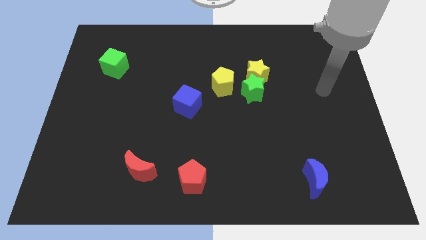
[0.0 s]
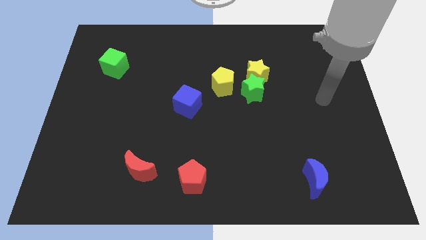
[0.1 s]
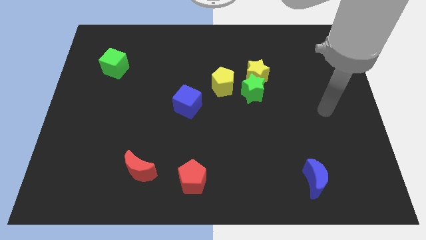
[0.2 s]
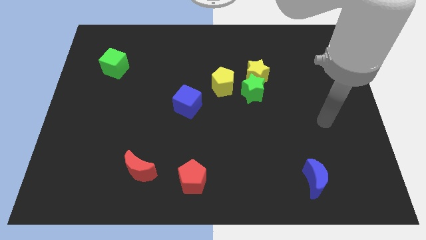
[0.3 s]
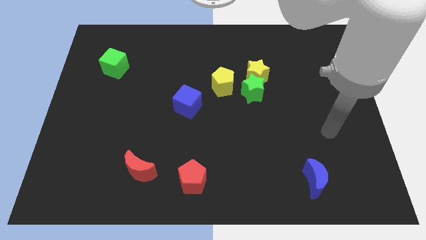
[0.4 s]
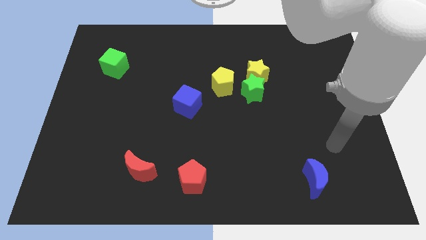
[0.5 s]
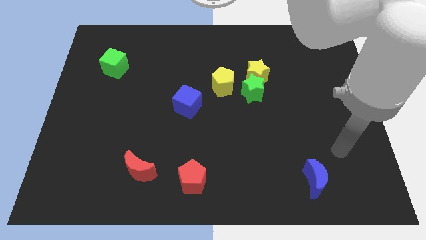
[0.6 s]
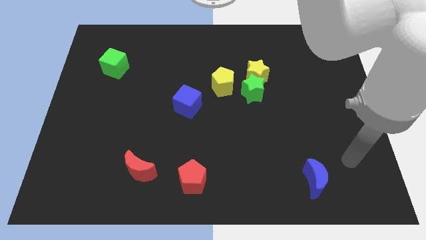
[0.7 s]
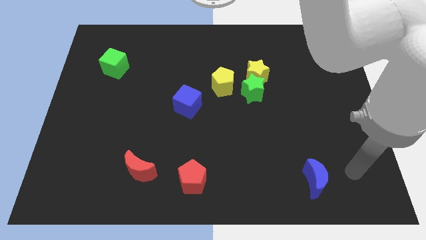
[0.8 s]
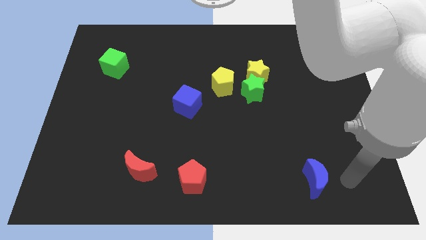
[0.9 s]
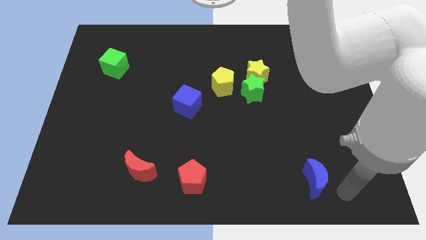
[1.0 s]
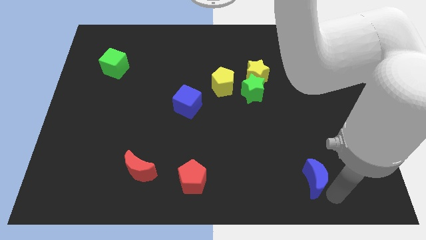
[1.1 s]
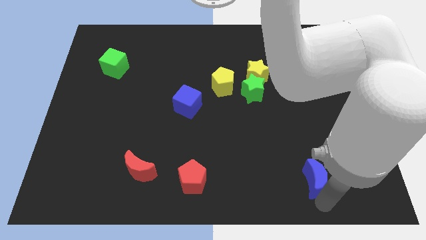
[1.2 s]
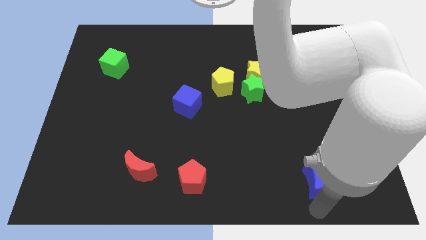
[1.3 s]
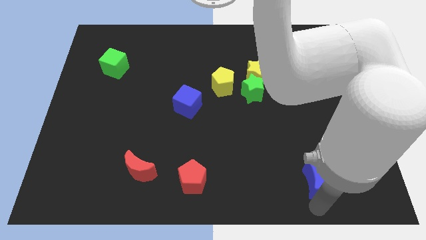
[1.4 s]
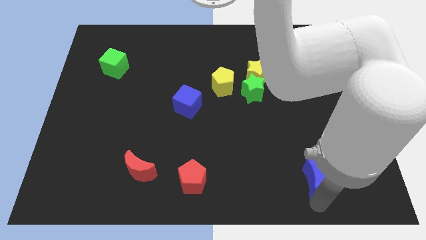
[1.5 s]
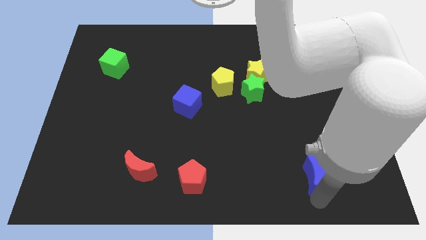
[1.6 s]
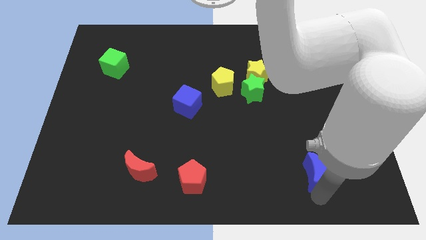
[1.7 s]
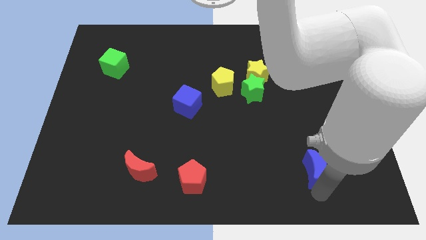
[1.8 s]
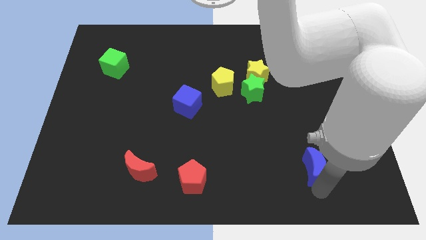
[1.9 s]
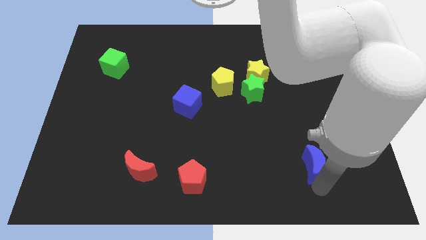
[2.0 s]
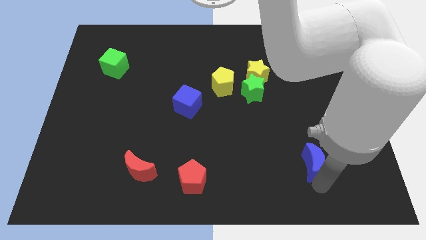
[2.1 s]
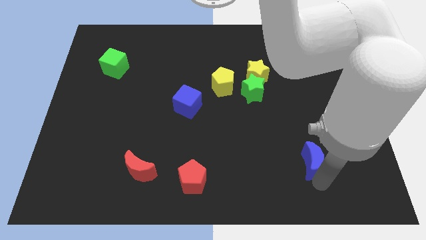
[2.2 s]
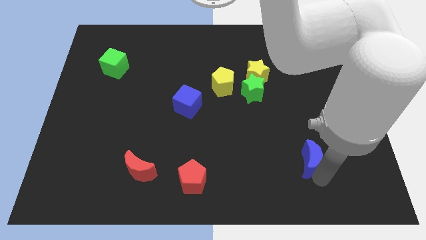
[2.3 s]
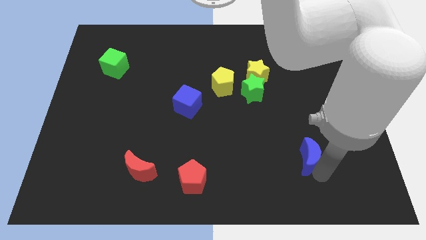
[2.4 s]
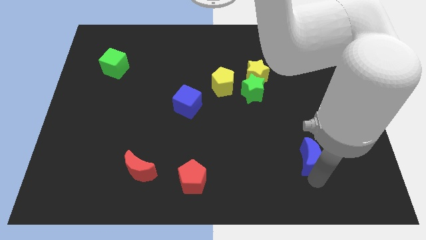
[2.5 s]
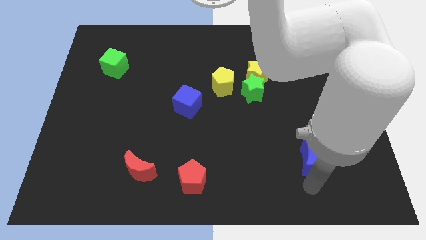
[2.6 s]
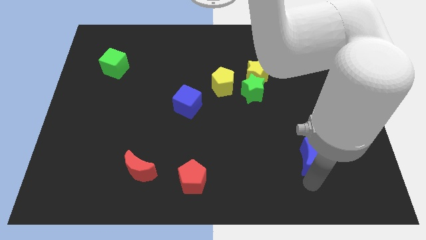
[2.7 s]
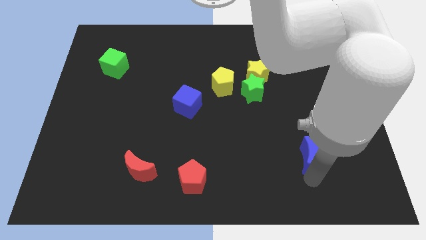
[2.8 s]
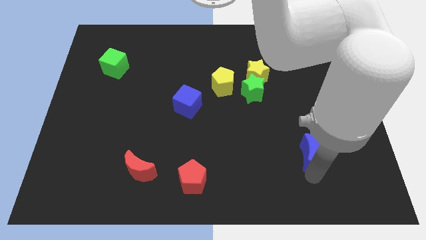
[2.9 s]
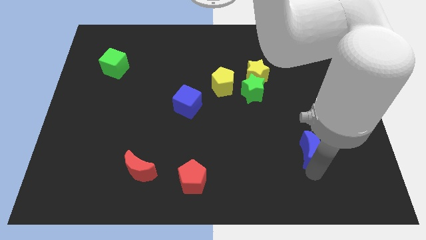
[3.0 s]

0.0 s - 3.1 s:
slightly push the blue moon up

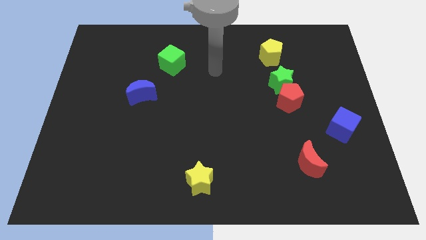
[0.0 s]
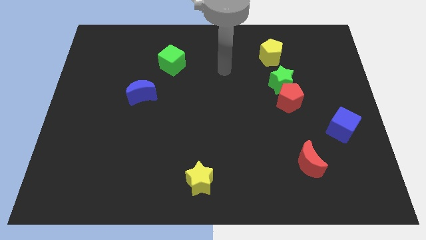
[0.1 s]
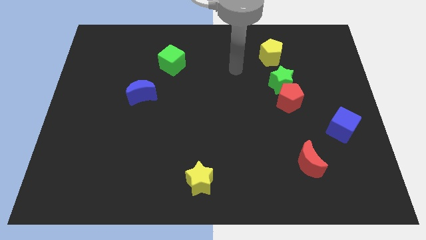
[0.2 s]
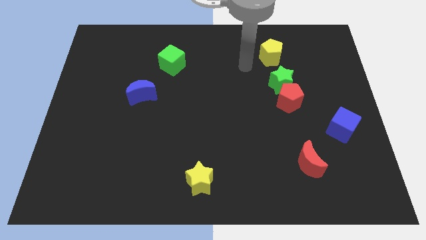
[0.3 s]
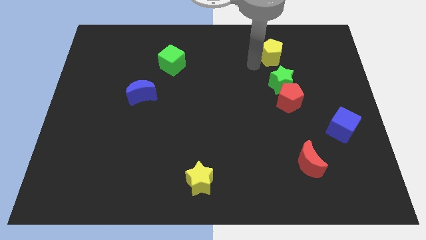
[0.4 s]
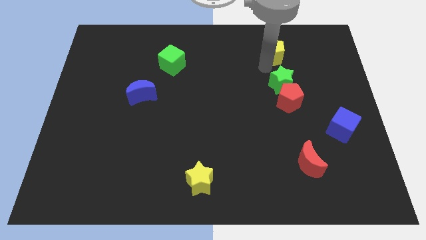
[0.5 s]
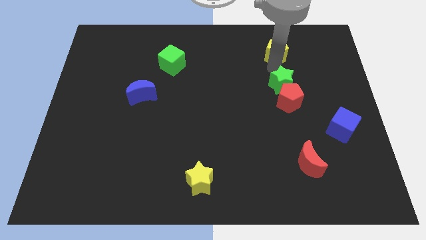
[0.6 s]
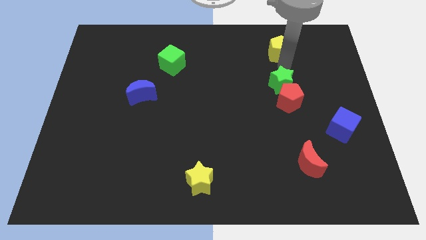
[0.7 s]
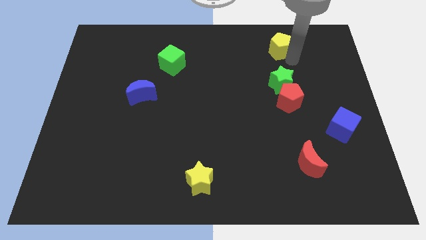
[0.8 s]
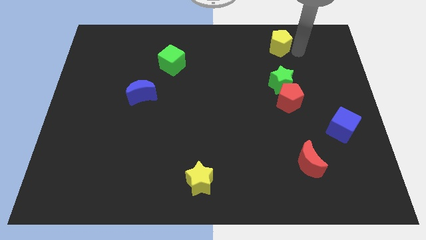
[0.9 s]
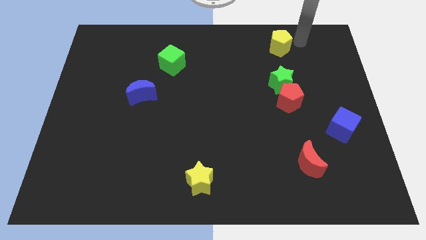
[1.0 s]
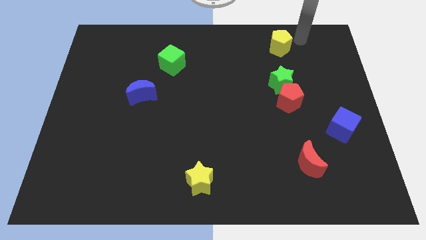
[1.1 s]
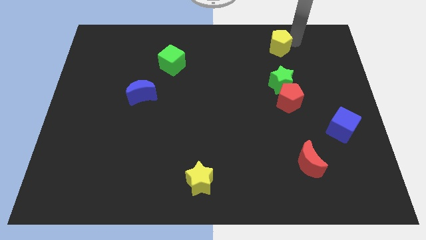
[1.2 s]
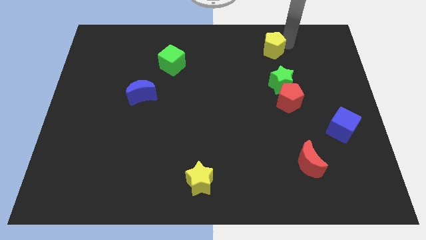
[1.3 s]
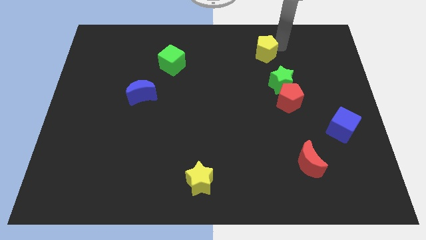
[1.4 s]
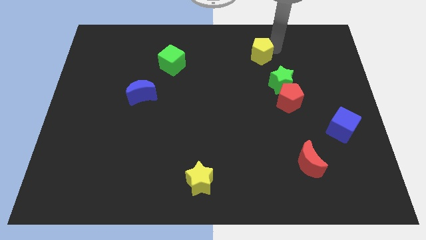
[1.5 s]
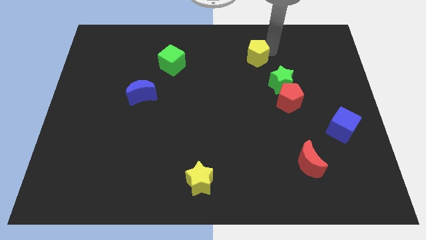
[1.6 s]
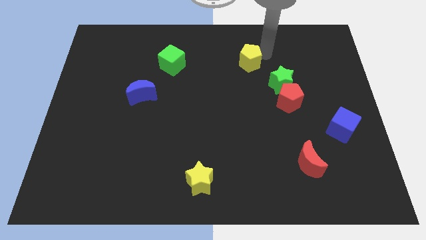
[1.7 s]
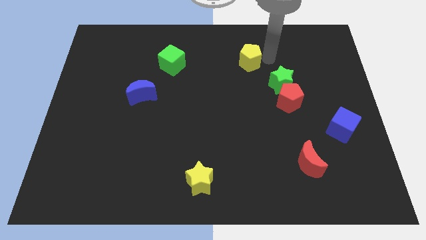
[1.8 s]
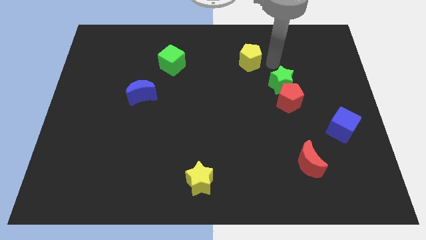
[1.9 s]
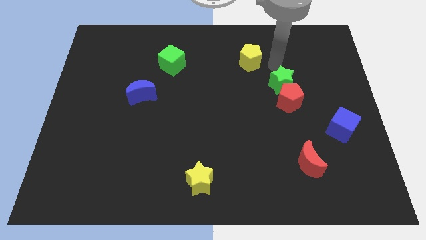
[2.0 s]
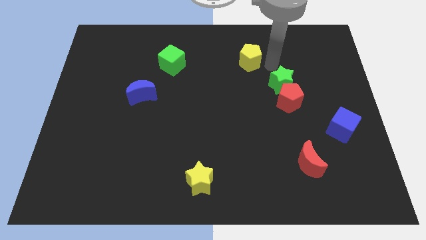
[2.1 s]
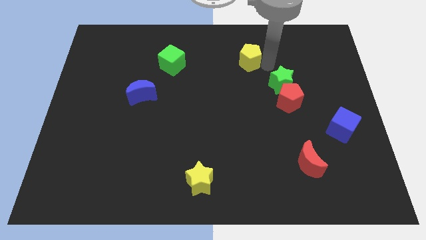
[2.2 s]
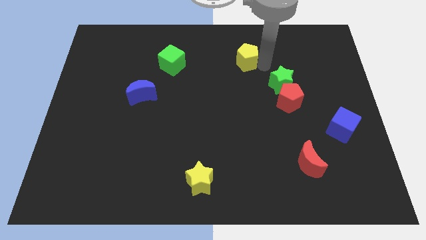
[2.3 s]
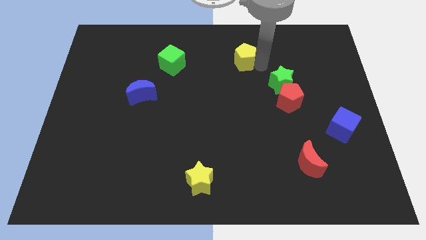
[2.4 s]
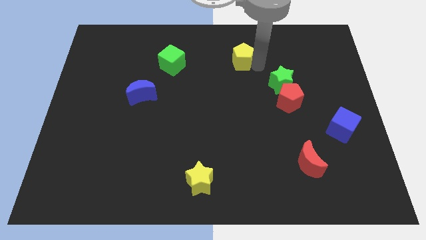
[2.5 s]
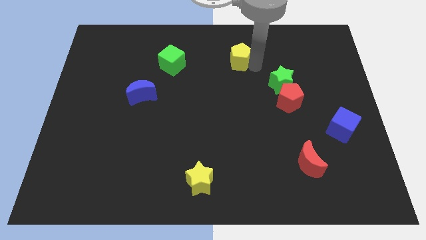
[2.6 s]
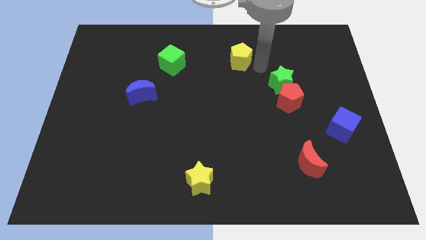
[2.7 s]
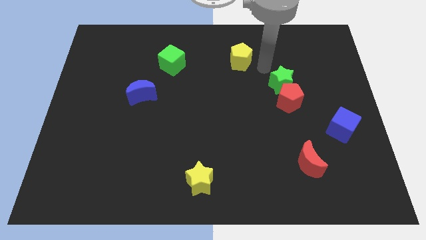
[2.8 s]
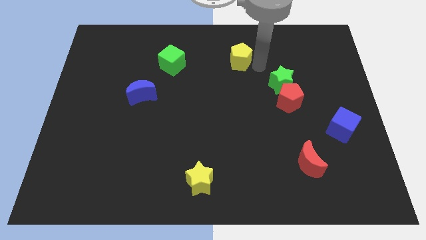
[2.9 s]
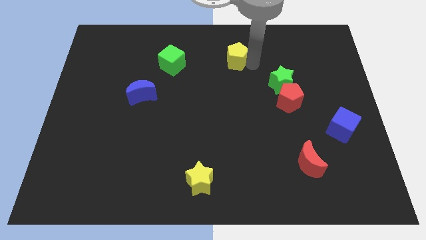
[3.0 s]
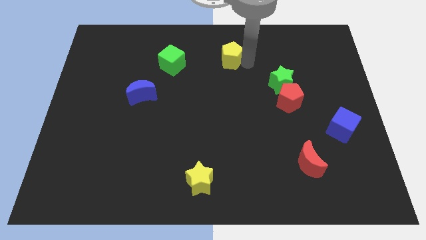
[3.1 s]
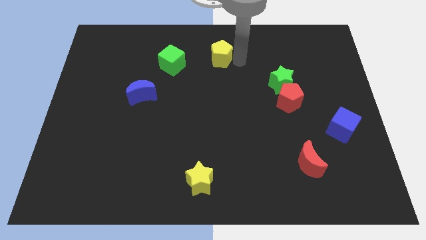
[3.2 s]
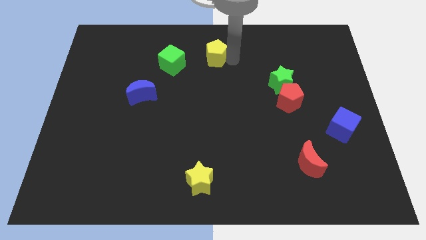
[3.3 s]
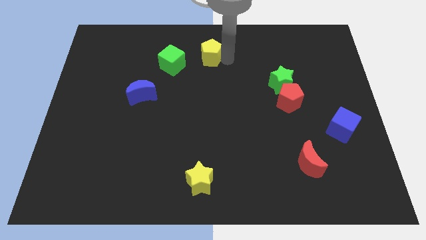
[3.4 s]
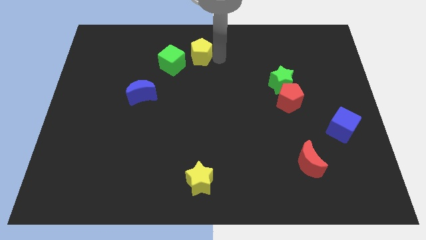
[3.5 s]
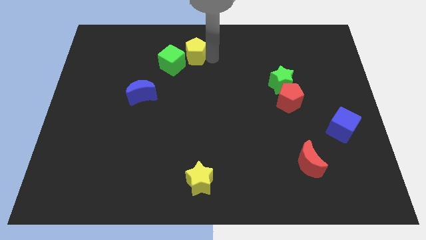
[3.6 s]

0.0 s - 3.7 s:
push the yellow pentagon left

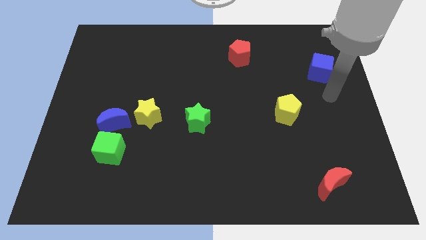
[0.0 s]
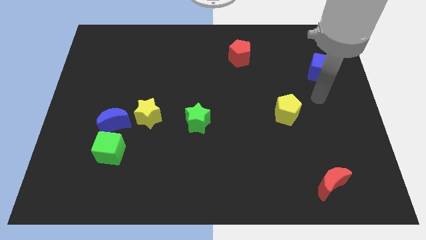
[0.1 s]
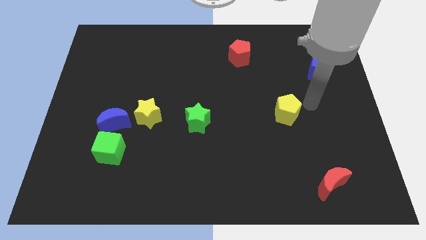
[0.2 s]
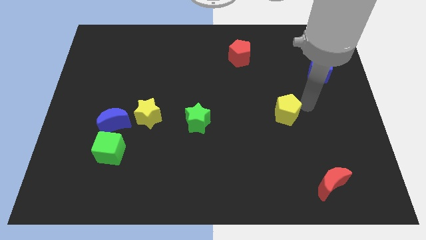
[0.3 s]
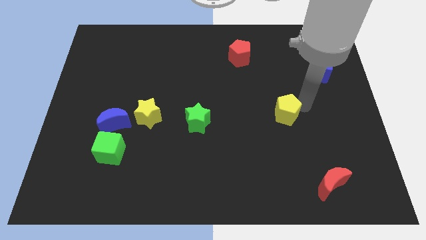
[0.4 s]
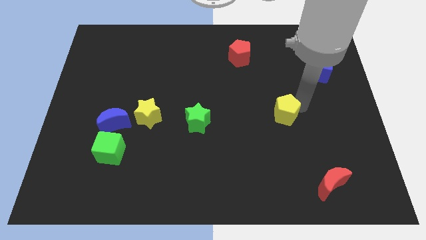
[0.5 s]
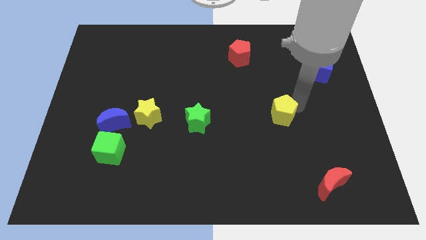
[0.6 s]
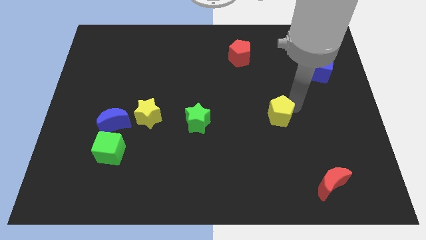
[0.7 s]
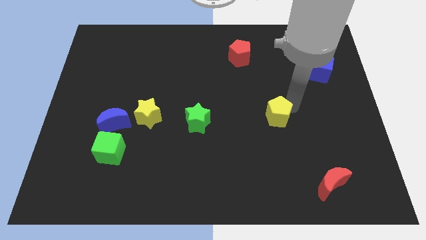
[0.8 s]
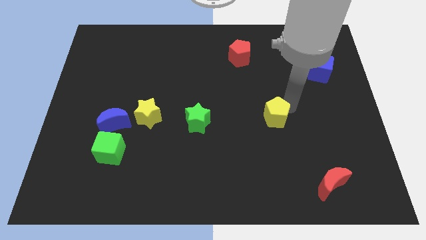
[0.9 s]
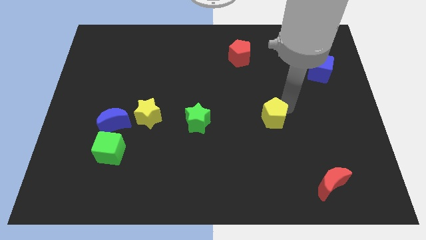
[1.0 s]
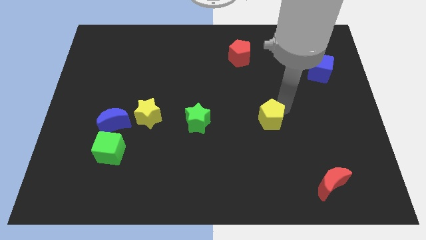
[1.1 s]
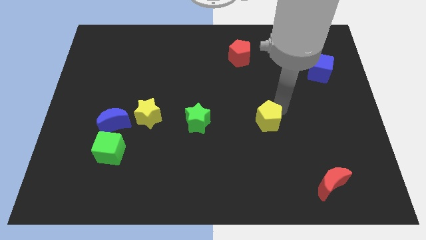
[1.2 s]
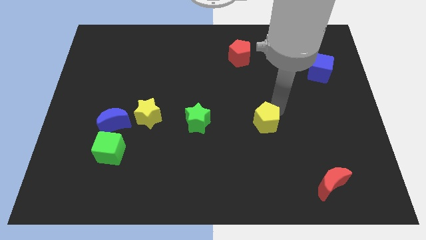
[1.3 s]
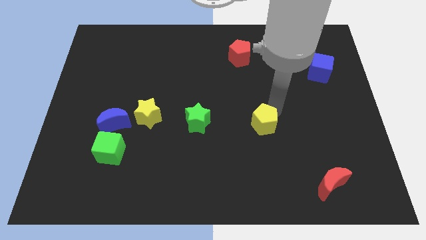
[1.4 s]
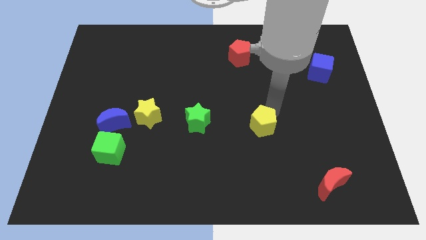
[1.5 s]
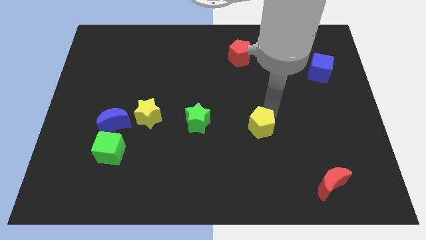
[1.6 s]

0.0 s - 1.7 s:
slide the yellow pentagon somewhat downwards and then to the left

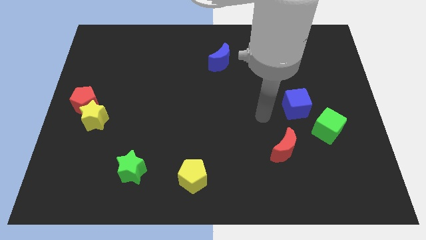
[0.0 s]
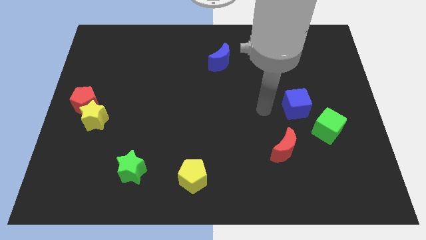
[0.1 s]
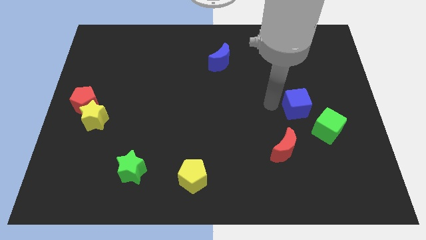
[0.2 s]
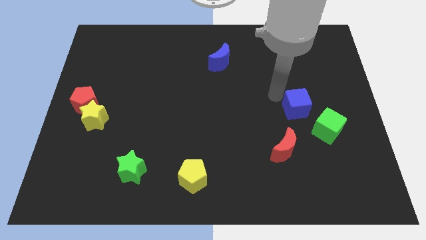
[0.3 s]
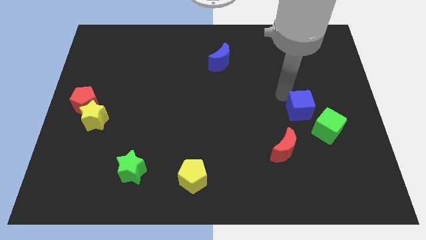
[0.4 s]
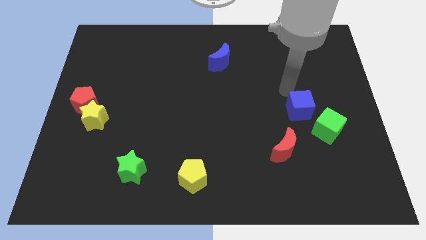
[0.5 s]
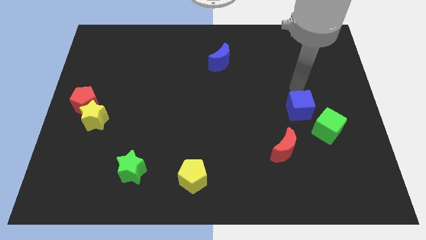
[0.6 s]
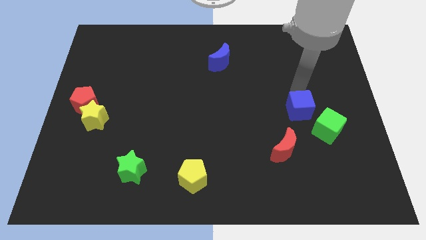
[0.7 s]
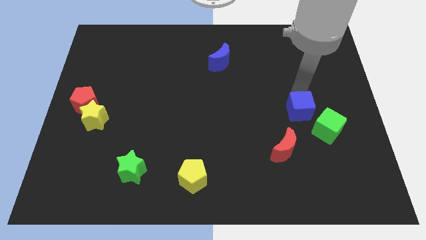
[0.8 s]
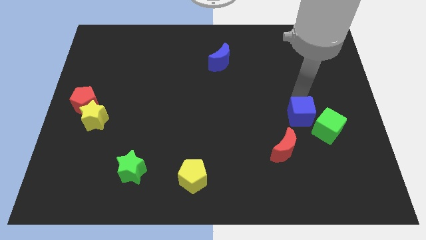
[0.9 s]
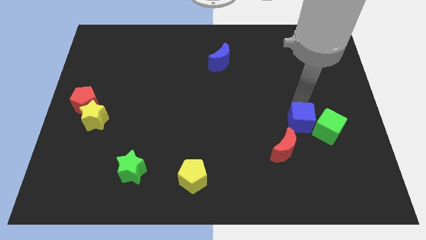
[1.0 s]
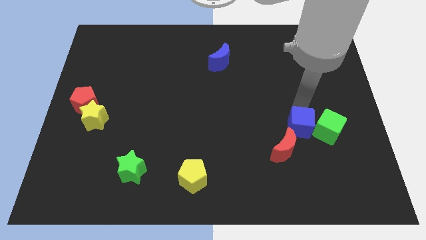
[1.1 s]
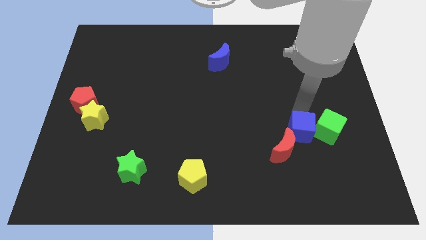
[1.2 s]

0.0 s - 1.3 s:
slide the blue cube a bit down
